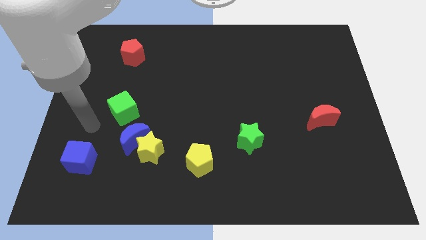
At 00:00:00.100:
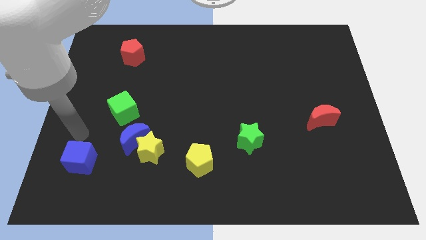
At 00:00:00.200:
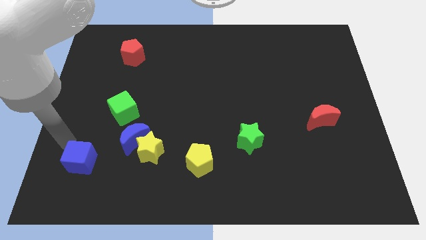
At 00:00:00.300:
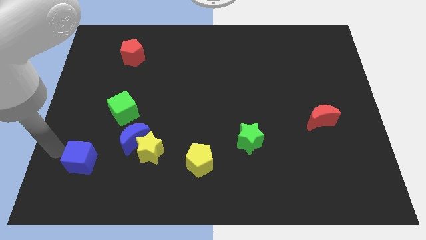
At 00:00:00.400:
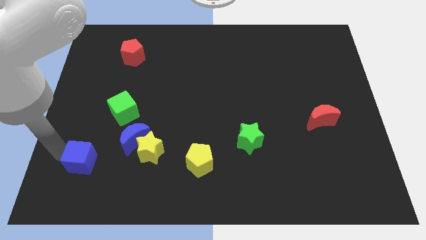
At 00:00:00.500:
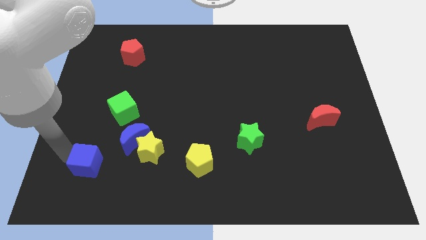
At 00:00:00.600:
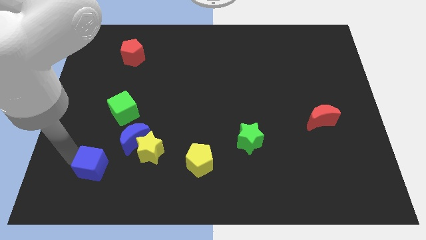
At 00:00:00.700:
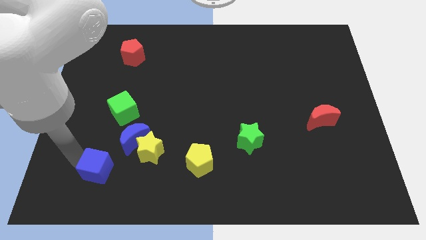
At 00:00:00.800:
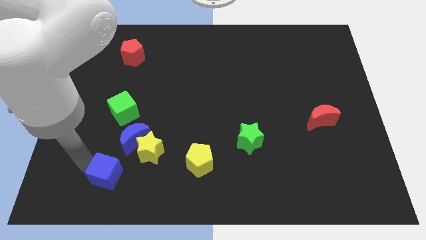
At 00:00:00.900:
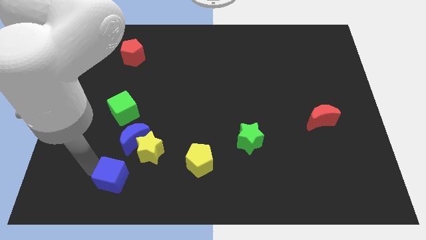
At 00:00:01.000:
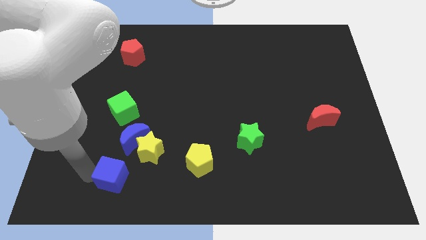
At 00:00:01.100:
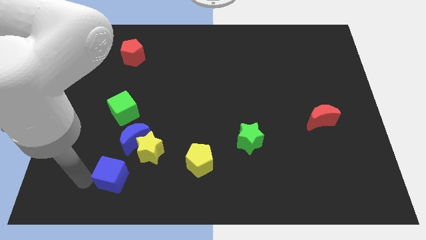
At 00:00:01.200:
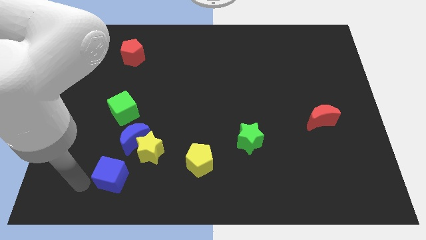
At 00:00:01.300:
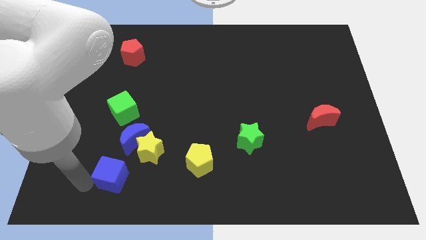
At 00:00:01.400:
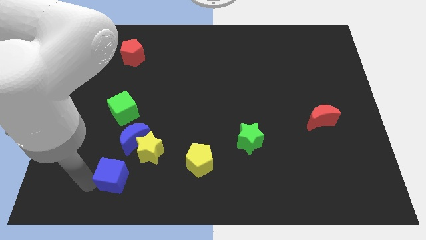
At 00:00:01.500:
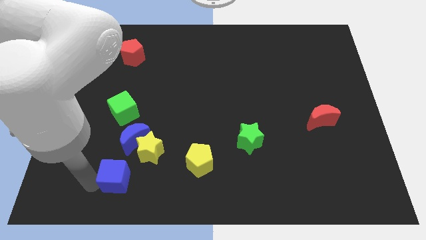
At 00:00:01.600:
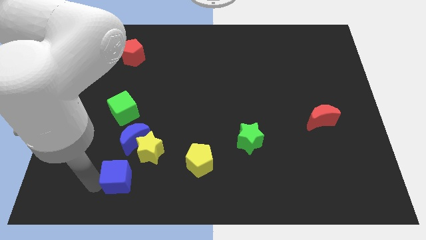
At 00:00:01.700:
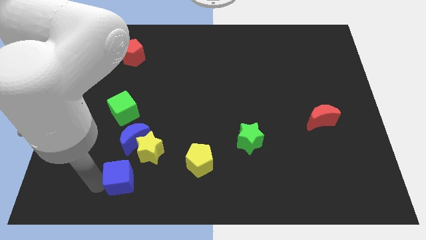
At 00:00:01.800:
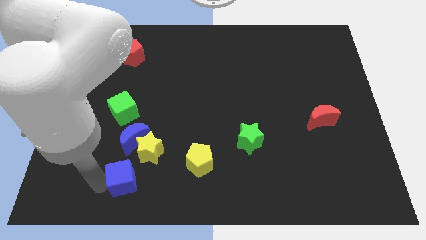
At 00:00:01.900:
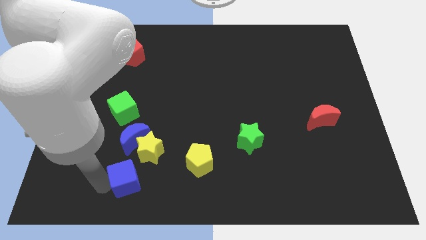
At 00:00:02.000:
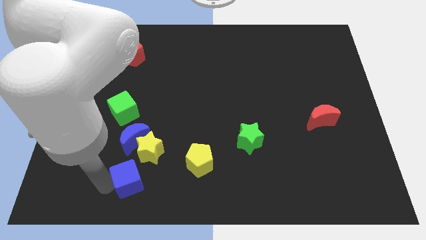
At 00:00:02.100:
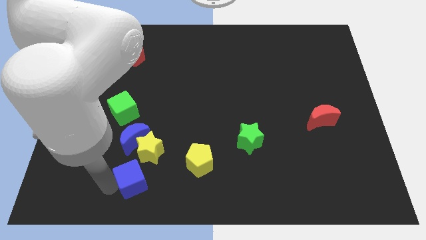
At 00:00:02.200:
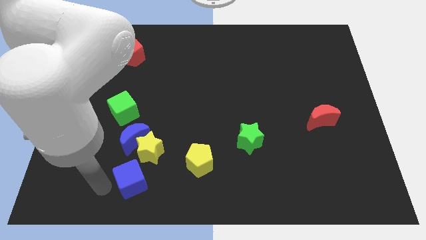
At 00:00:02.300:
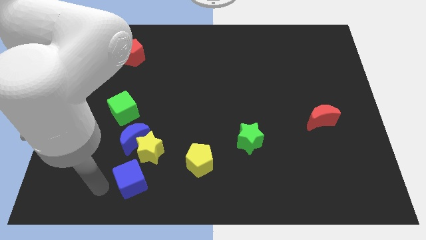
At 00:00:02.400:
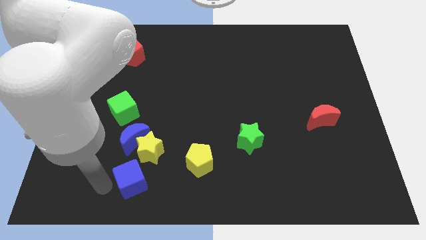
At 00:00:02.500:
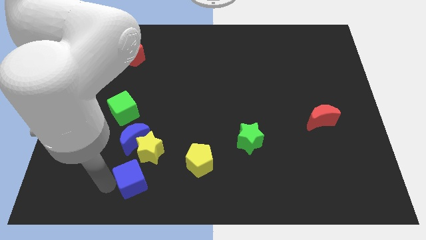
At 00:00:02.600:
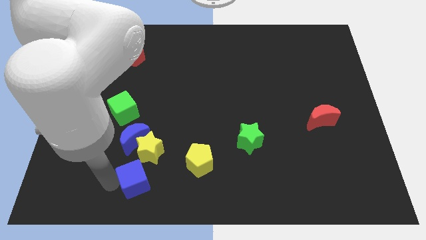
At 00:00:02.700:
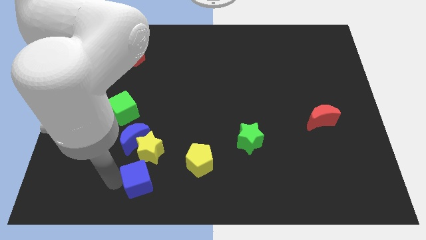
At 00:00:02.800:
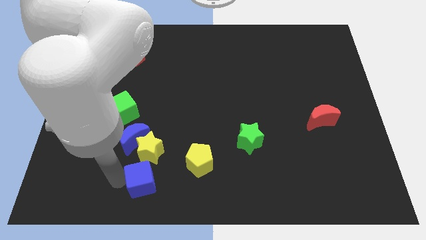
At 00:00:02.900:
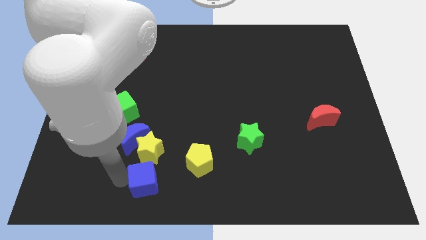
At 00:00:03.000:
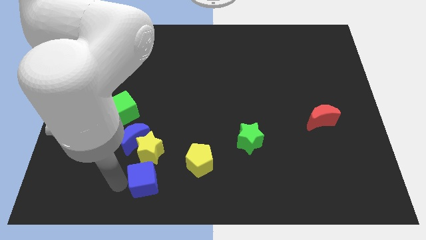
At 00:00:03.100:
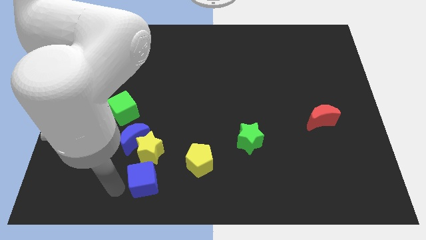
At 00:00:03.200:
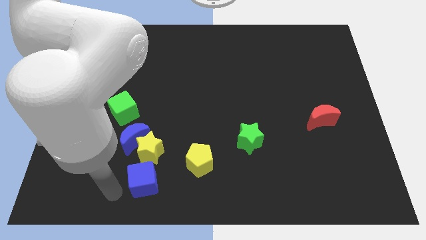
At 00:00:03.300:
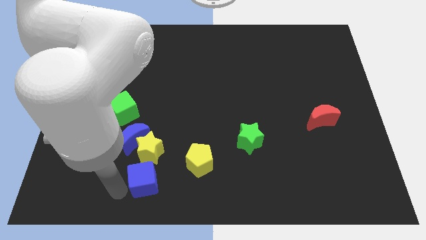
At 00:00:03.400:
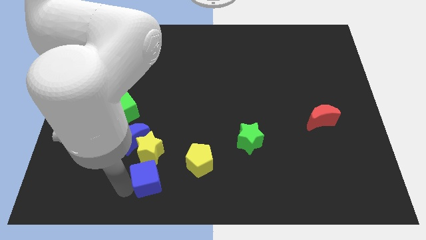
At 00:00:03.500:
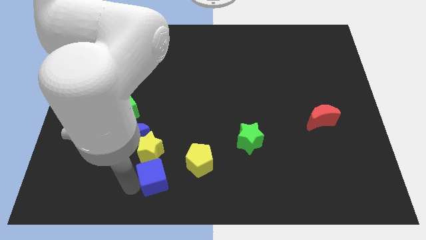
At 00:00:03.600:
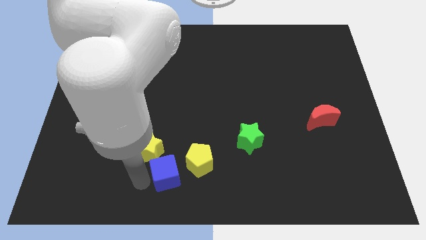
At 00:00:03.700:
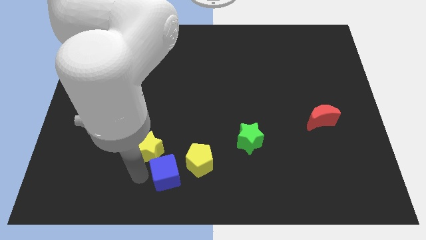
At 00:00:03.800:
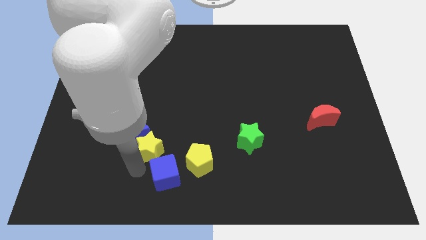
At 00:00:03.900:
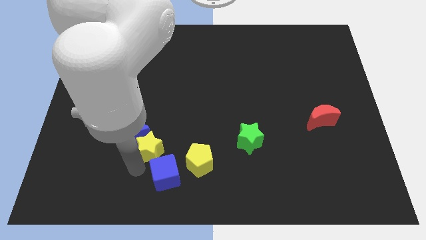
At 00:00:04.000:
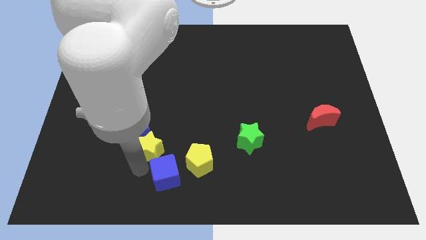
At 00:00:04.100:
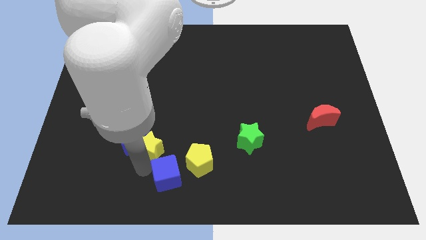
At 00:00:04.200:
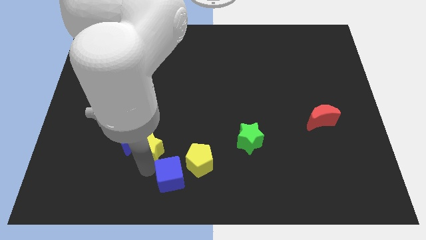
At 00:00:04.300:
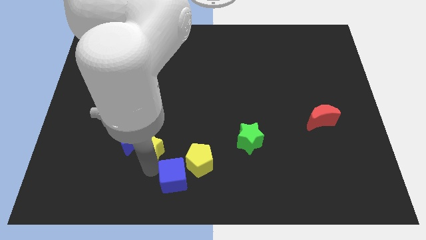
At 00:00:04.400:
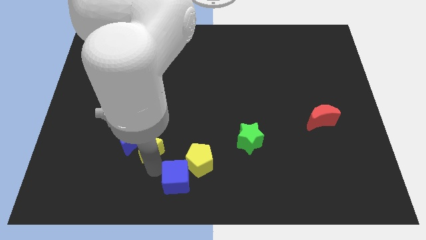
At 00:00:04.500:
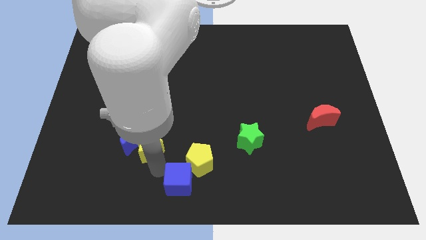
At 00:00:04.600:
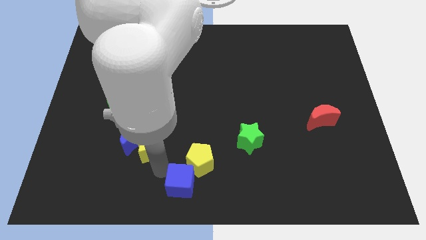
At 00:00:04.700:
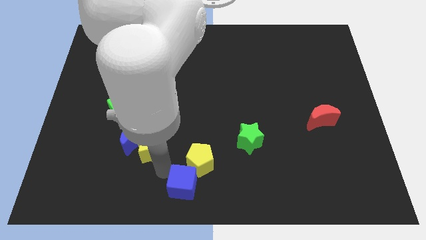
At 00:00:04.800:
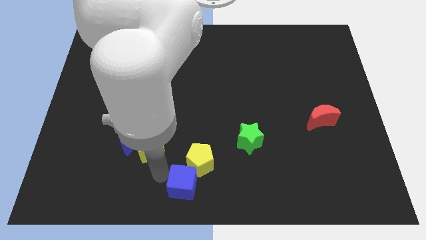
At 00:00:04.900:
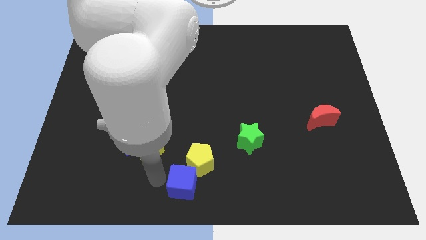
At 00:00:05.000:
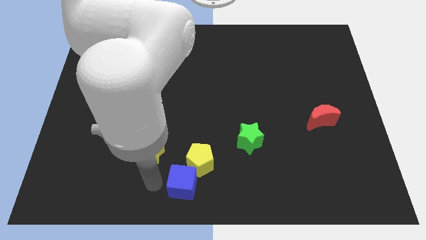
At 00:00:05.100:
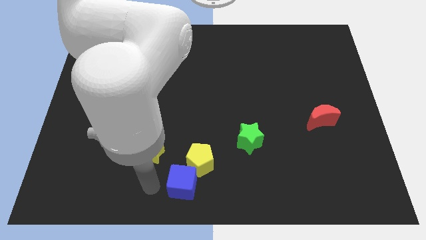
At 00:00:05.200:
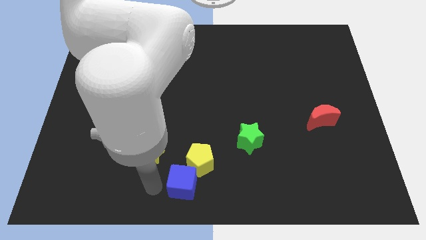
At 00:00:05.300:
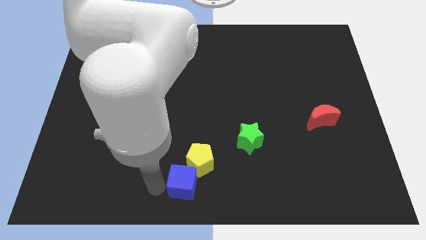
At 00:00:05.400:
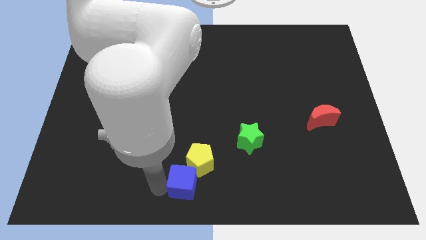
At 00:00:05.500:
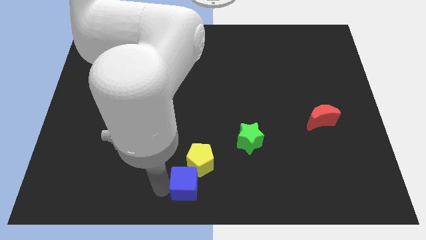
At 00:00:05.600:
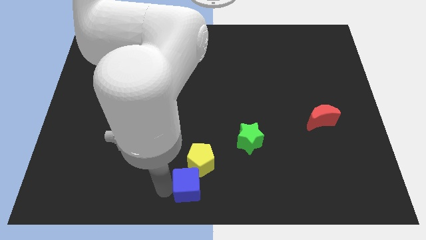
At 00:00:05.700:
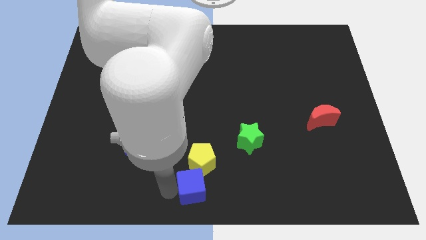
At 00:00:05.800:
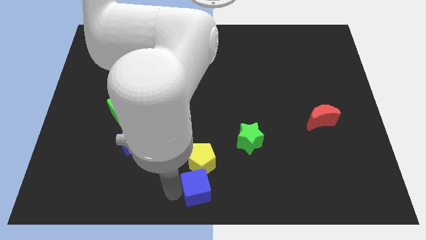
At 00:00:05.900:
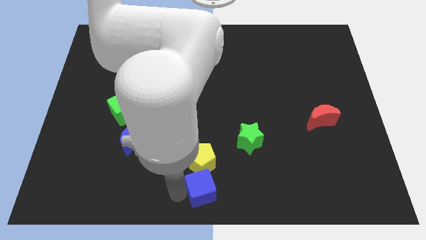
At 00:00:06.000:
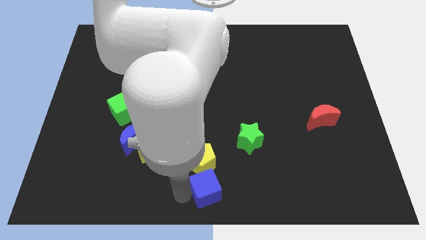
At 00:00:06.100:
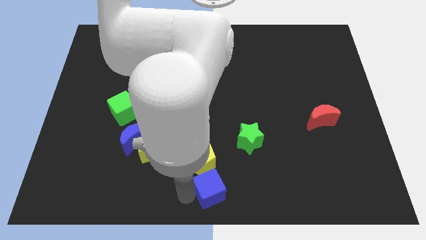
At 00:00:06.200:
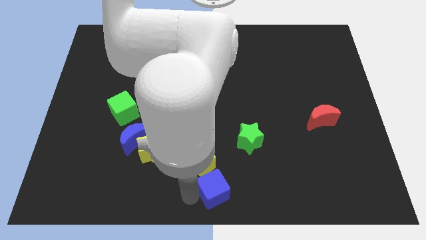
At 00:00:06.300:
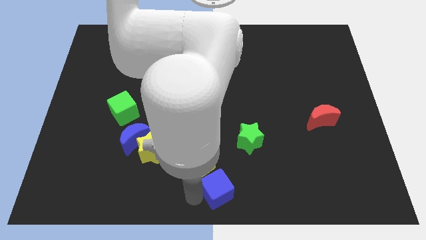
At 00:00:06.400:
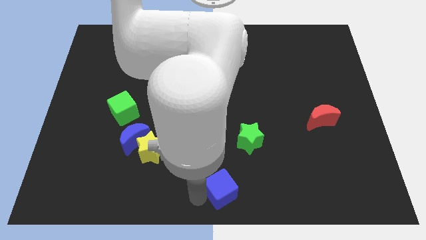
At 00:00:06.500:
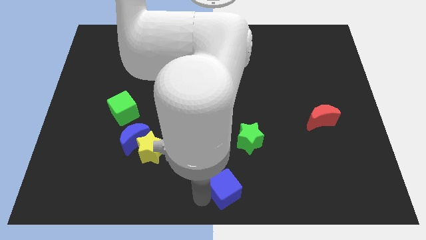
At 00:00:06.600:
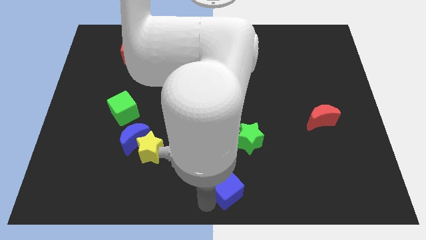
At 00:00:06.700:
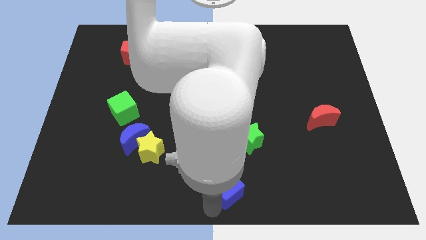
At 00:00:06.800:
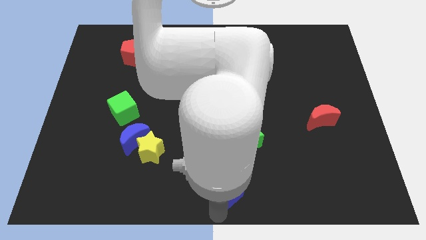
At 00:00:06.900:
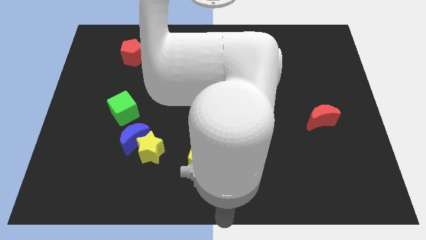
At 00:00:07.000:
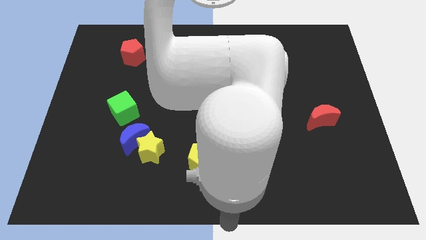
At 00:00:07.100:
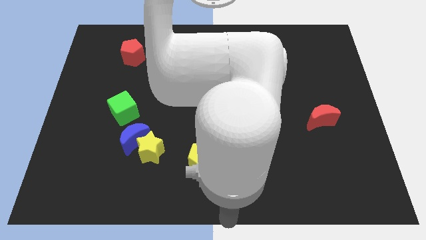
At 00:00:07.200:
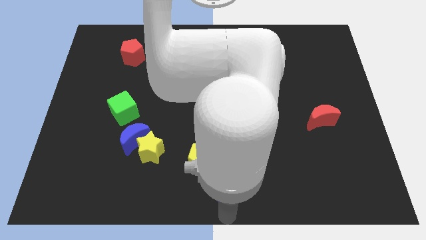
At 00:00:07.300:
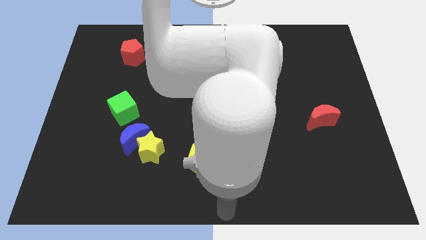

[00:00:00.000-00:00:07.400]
put the blue cube to the bottom left of the green star
